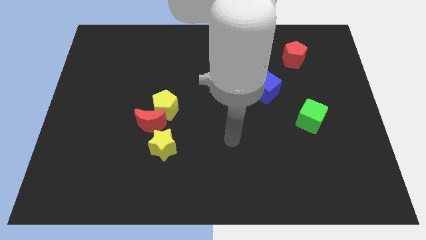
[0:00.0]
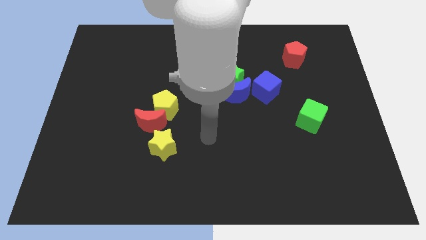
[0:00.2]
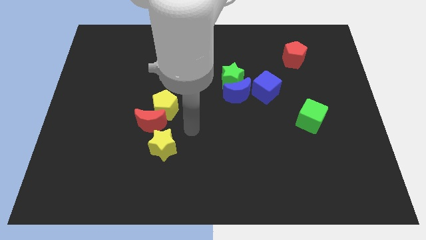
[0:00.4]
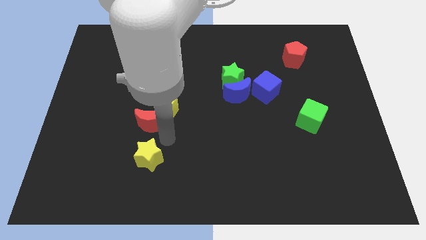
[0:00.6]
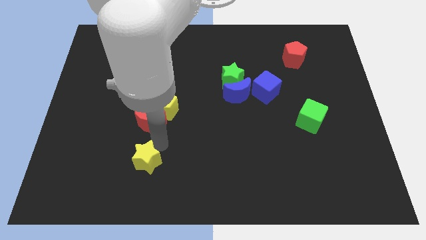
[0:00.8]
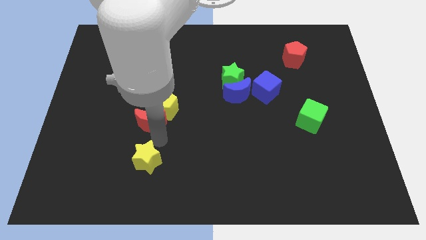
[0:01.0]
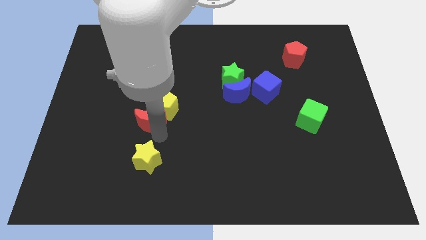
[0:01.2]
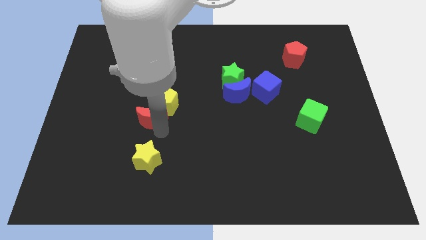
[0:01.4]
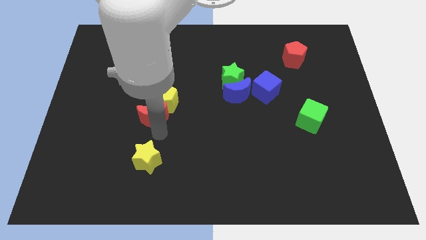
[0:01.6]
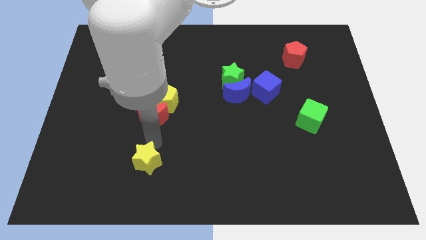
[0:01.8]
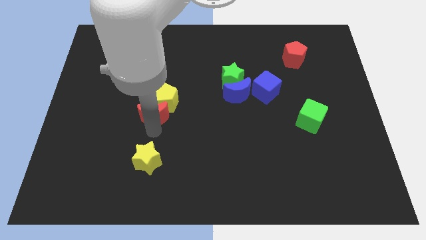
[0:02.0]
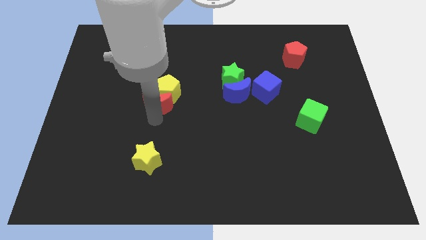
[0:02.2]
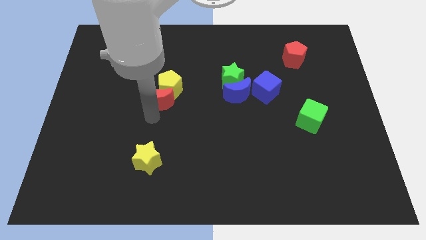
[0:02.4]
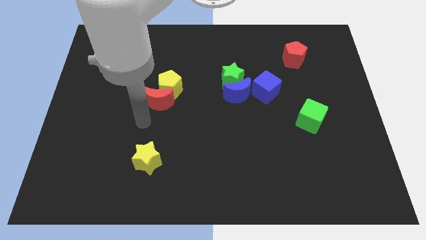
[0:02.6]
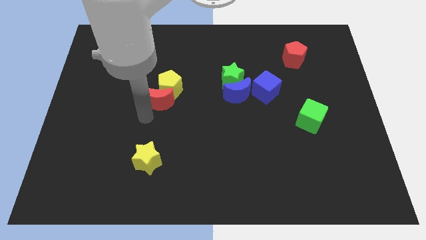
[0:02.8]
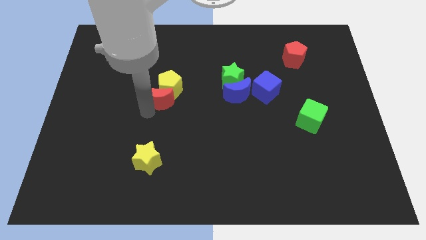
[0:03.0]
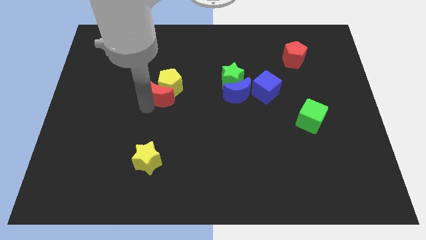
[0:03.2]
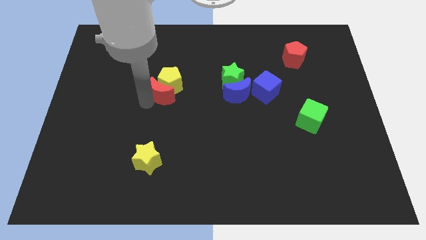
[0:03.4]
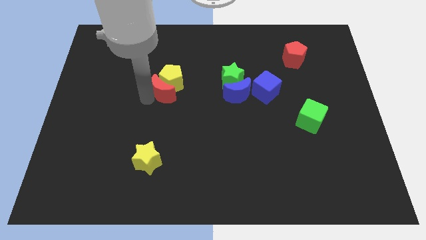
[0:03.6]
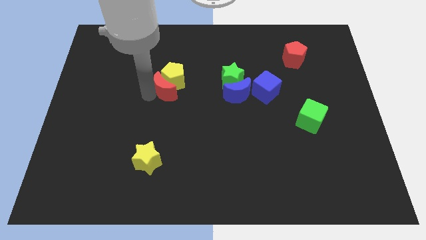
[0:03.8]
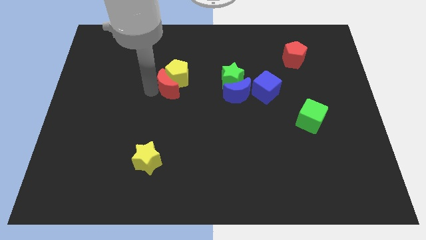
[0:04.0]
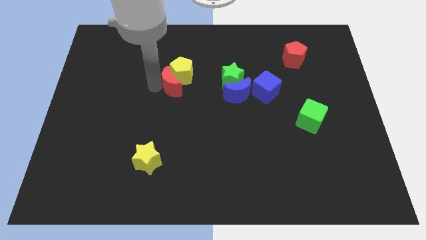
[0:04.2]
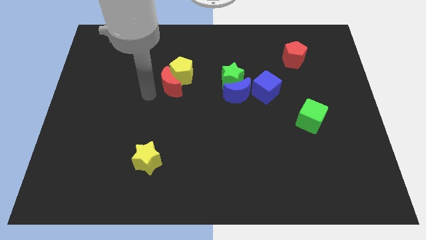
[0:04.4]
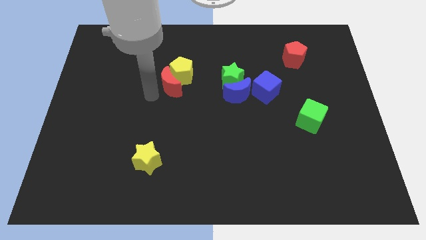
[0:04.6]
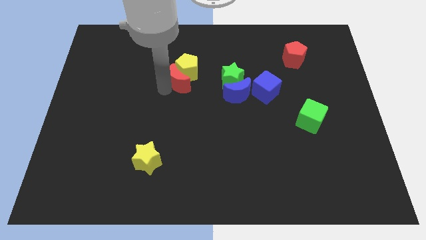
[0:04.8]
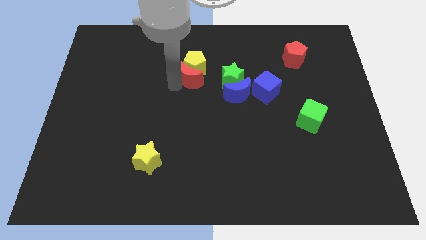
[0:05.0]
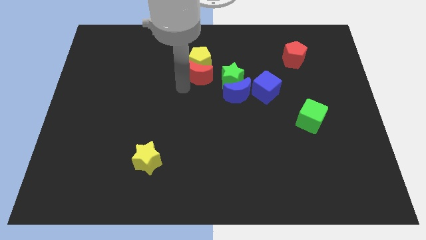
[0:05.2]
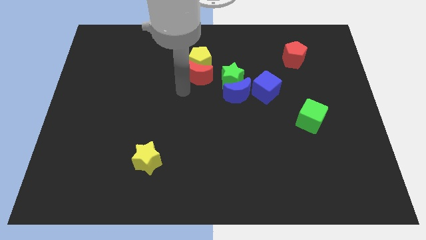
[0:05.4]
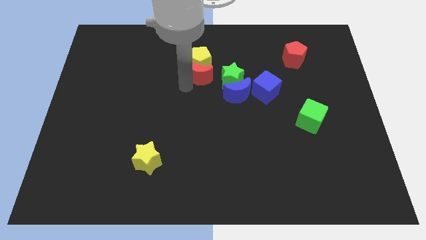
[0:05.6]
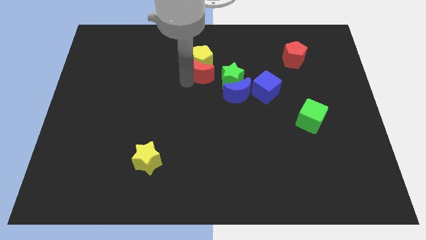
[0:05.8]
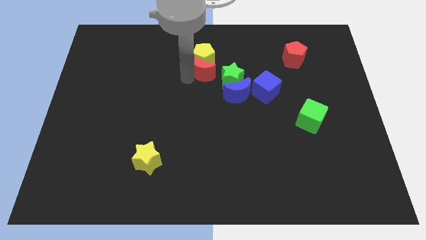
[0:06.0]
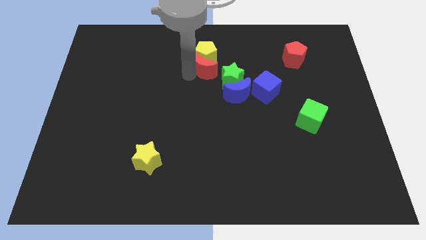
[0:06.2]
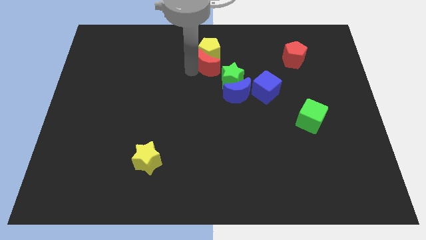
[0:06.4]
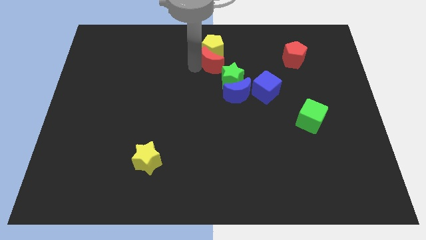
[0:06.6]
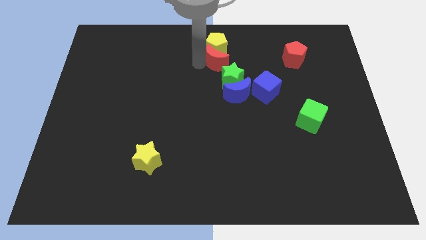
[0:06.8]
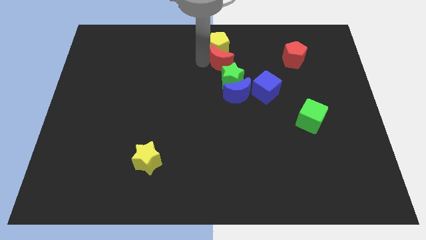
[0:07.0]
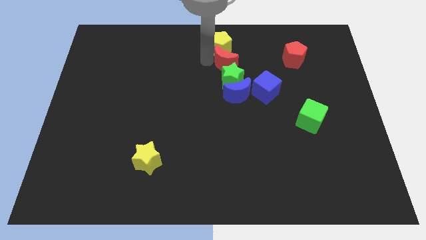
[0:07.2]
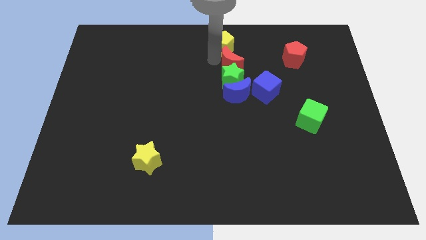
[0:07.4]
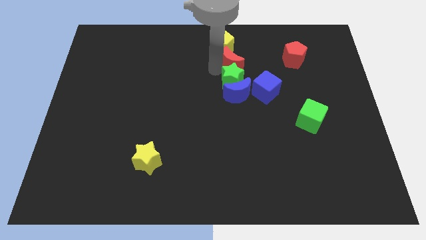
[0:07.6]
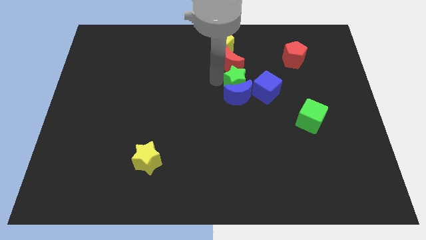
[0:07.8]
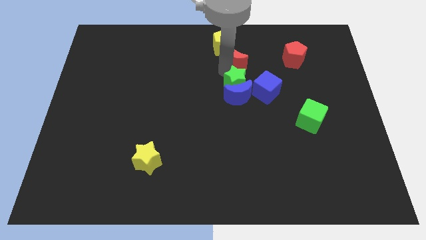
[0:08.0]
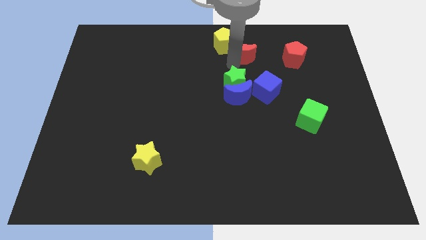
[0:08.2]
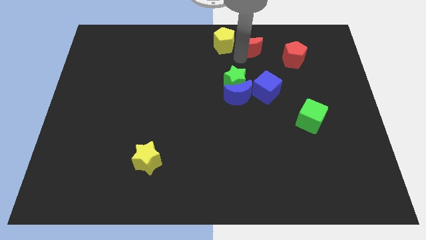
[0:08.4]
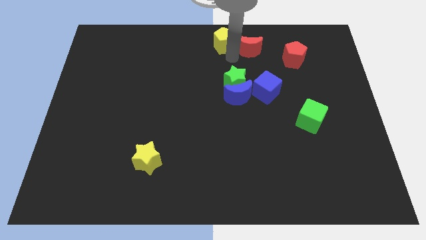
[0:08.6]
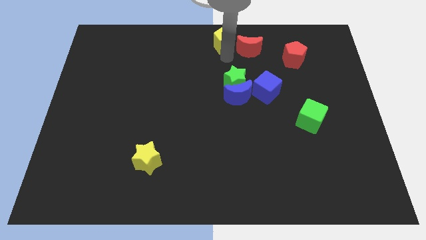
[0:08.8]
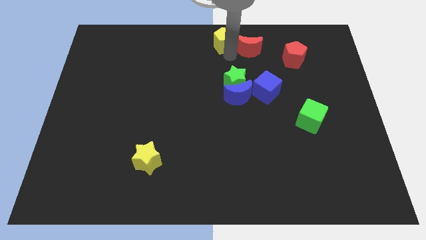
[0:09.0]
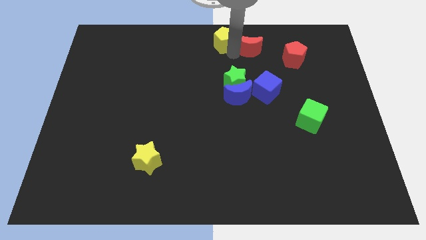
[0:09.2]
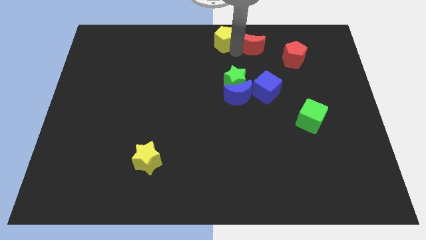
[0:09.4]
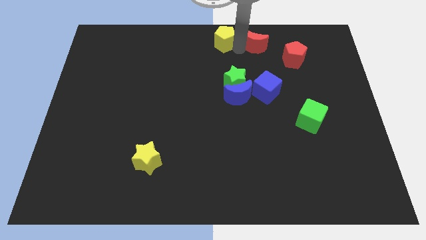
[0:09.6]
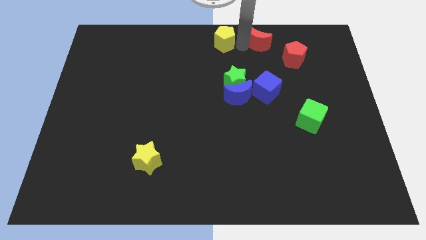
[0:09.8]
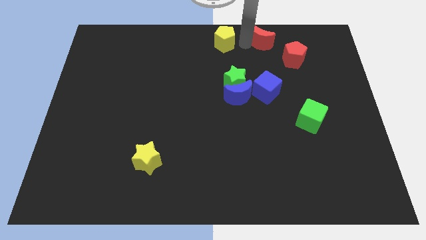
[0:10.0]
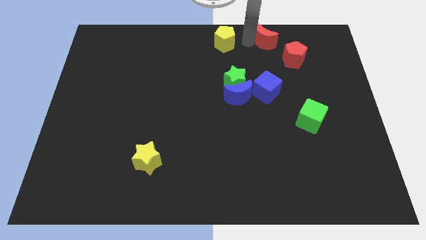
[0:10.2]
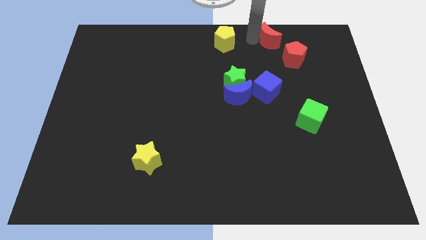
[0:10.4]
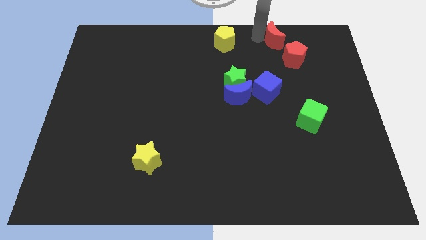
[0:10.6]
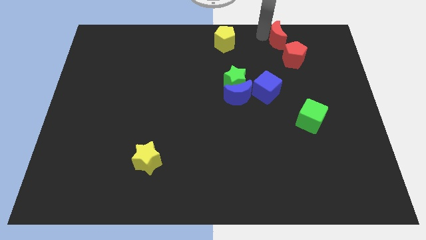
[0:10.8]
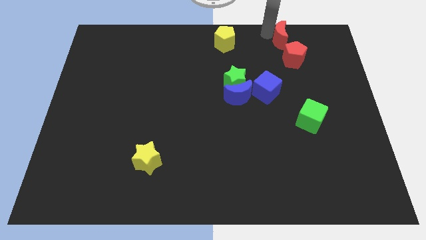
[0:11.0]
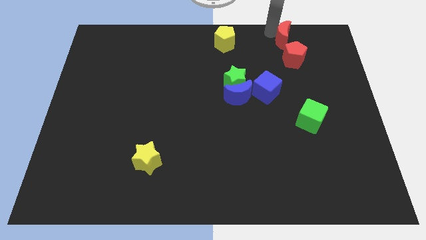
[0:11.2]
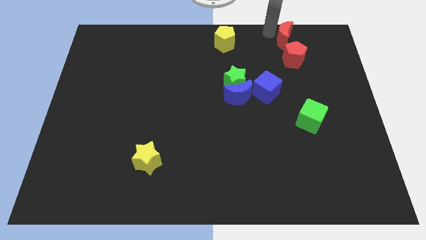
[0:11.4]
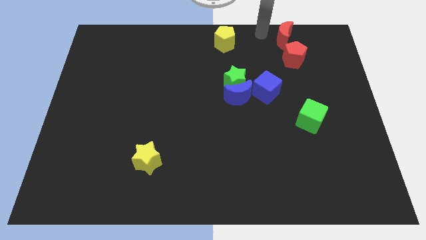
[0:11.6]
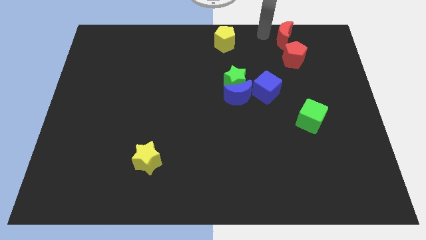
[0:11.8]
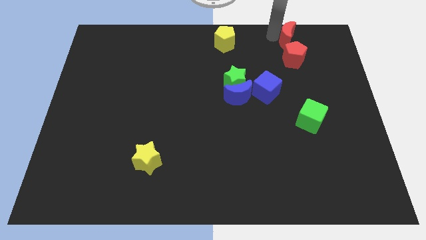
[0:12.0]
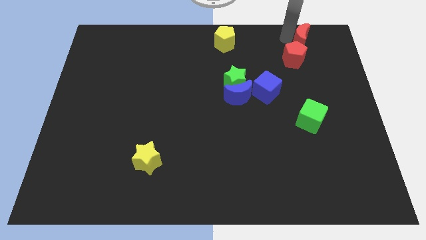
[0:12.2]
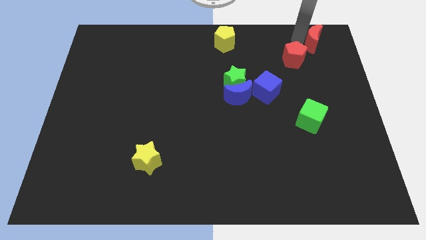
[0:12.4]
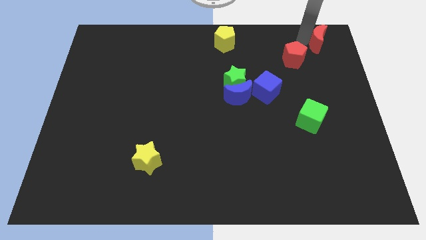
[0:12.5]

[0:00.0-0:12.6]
move the red moon to the top right corner
